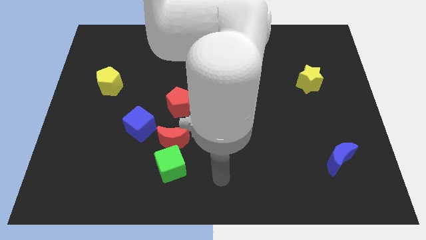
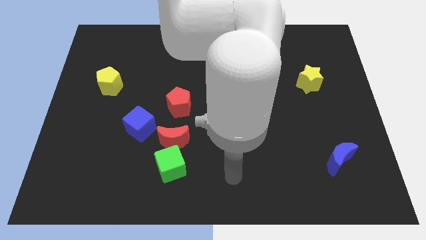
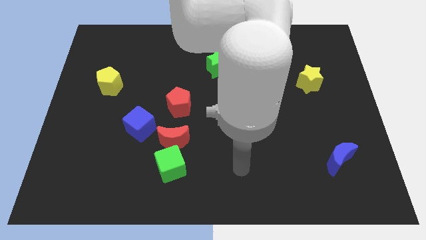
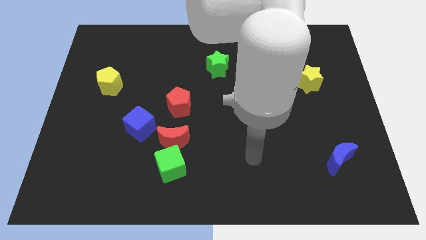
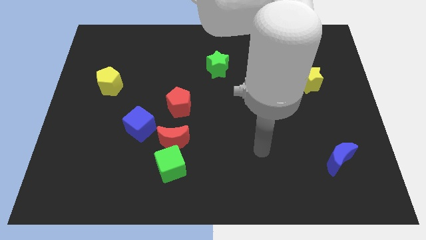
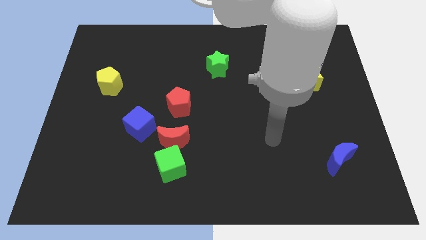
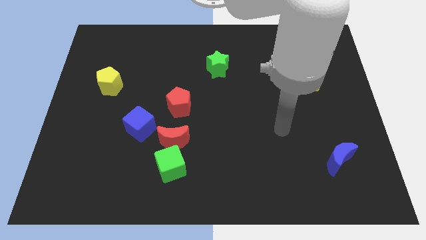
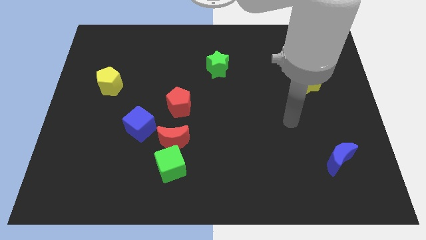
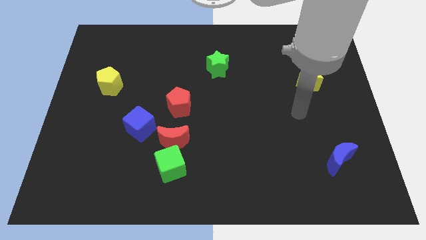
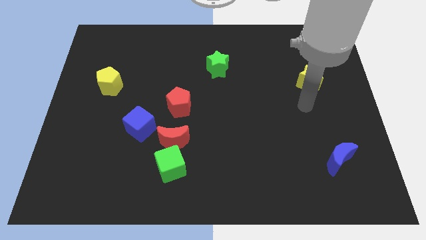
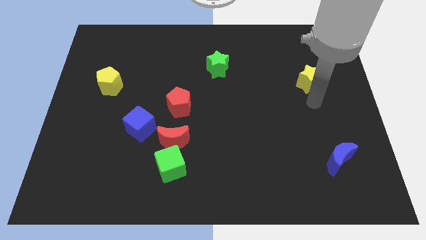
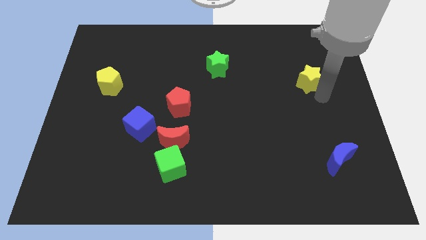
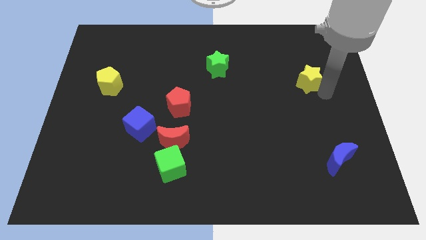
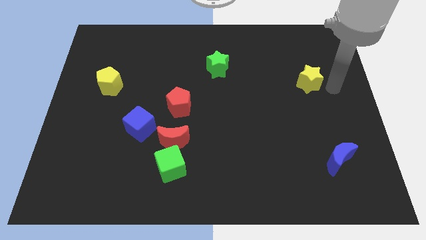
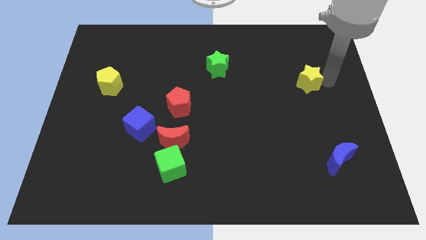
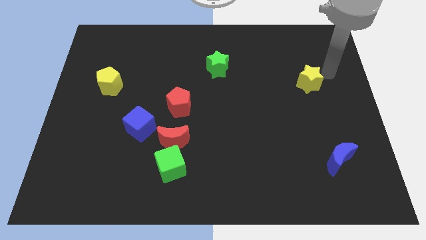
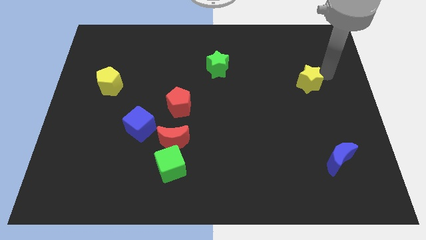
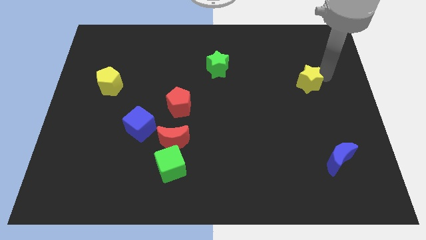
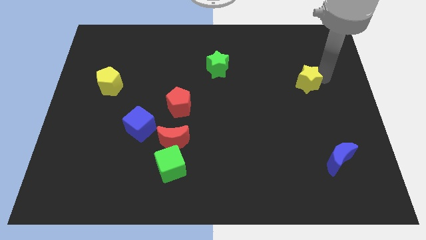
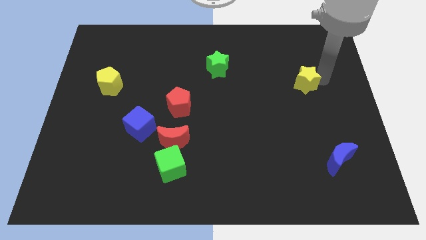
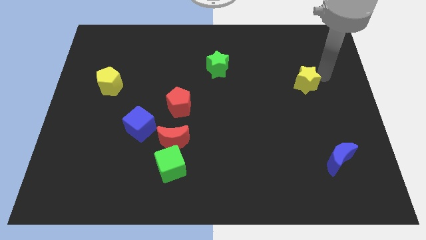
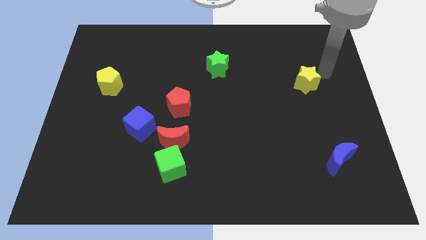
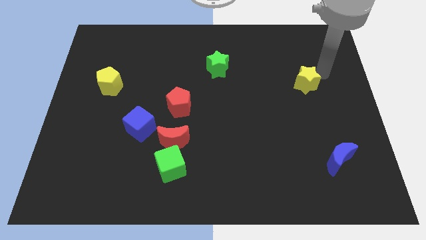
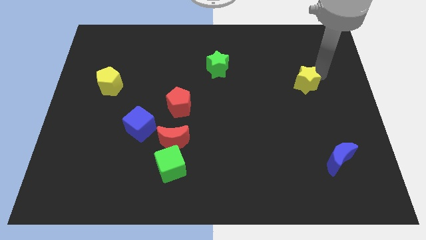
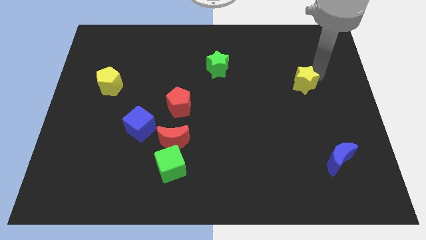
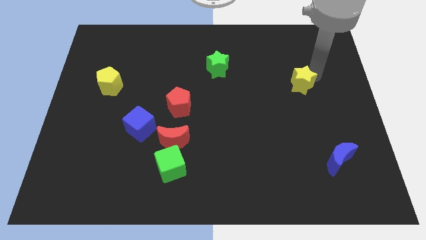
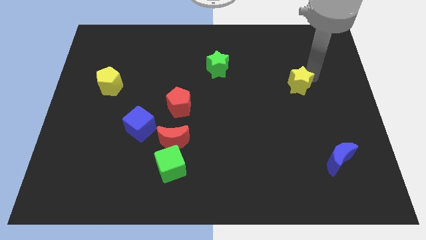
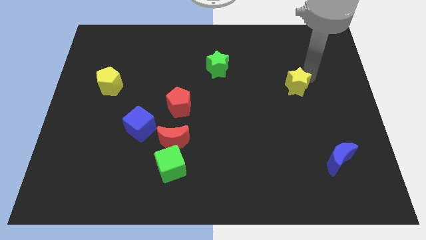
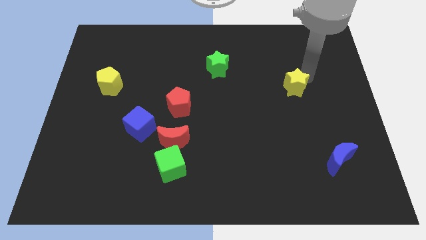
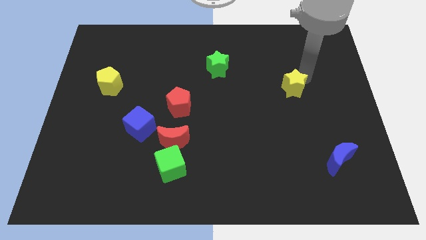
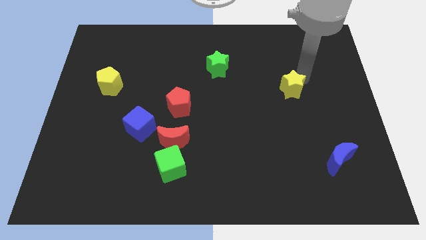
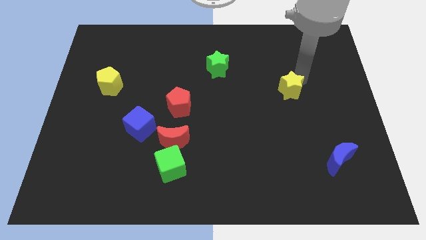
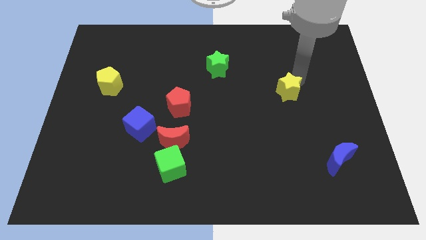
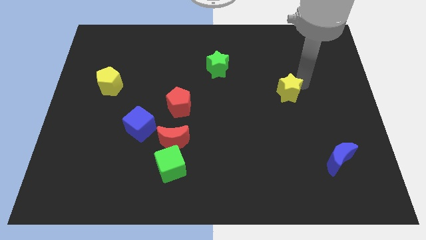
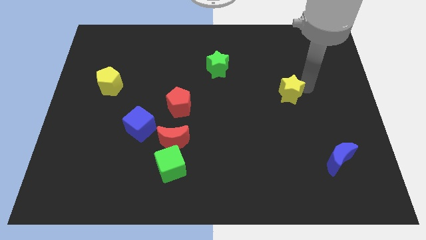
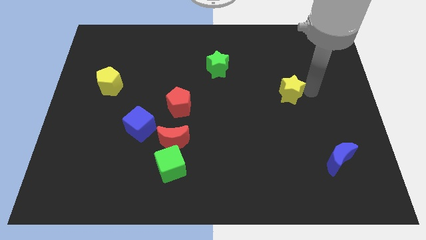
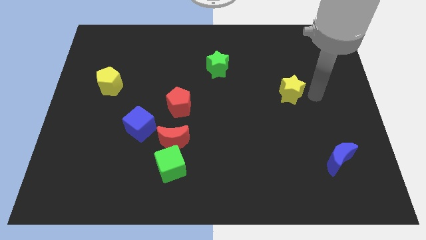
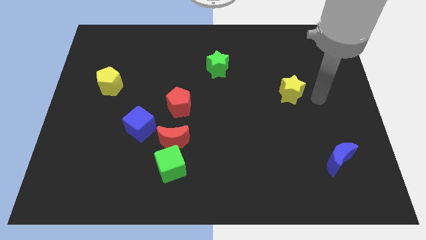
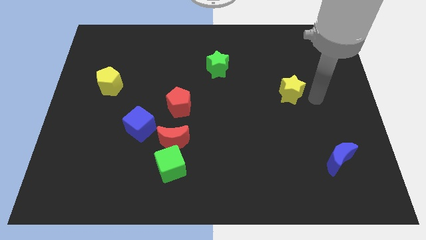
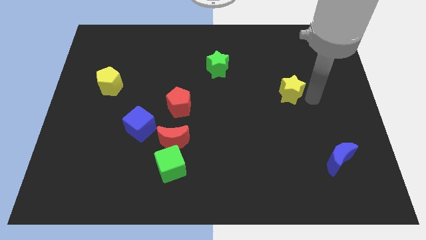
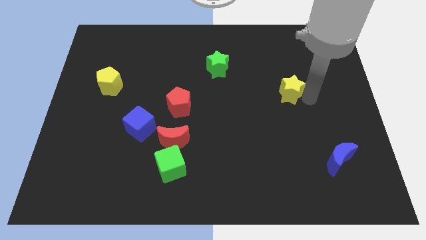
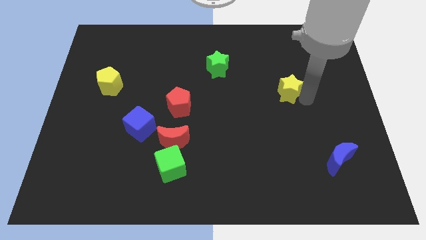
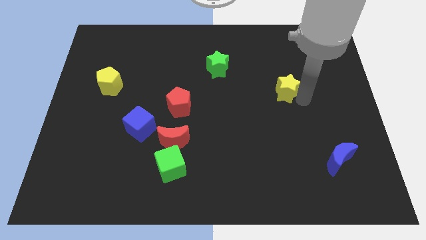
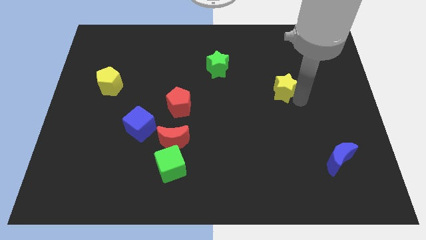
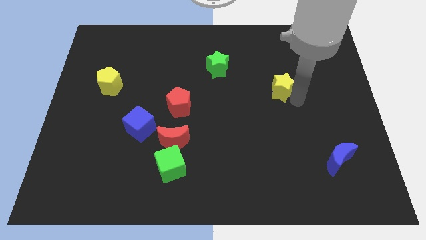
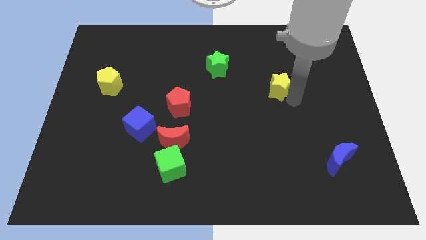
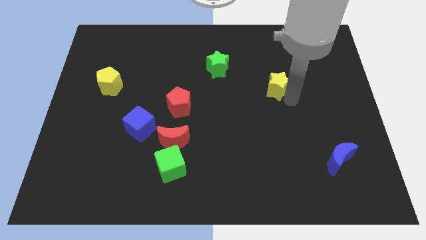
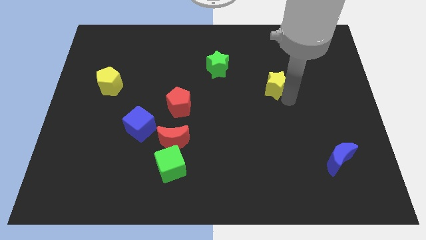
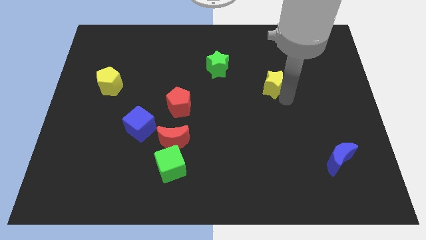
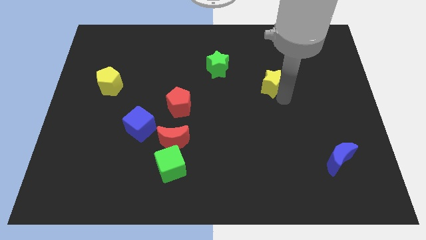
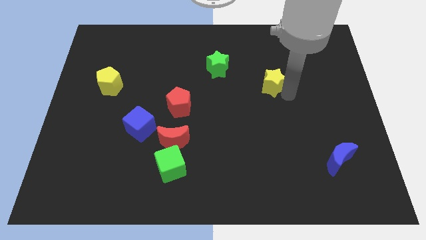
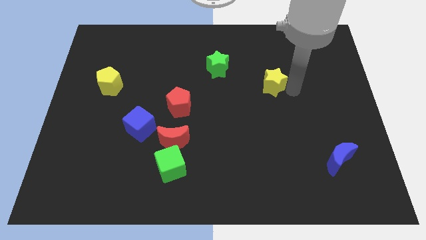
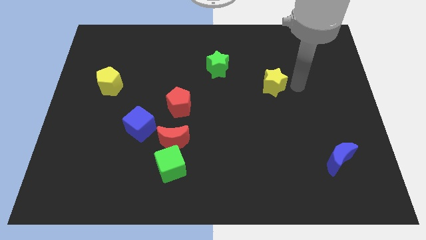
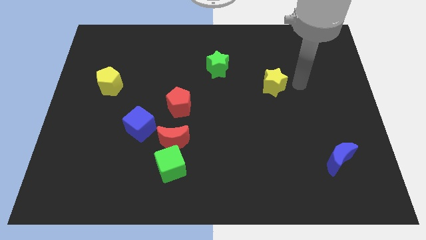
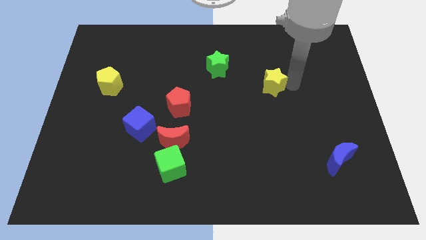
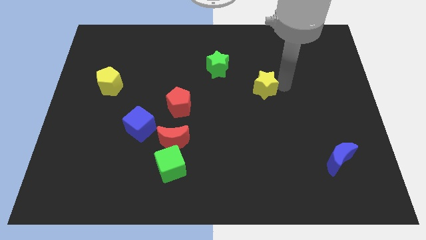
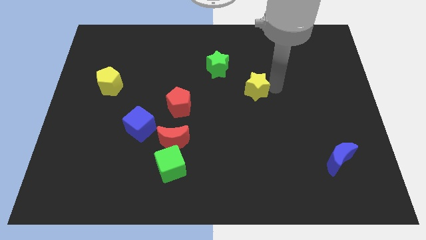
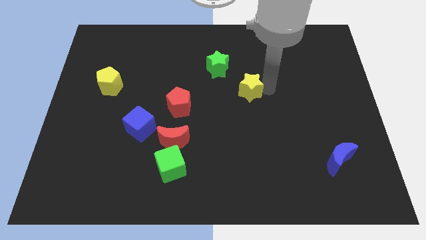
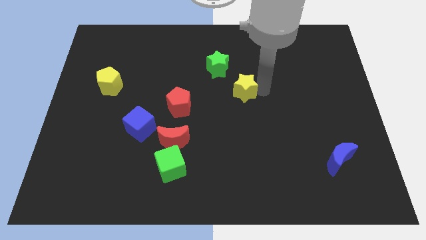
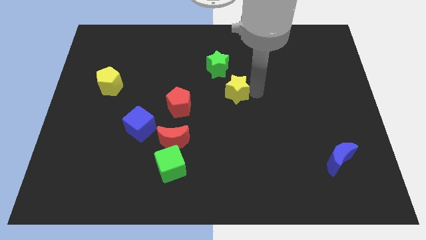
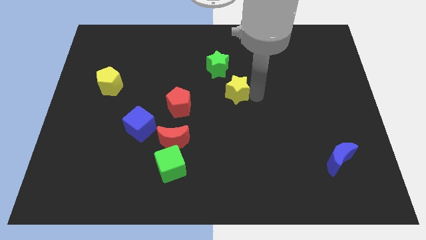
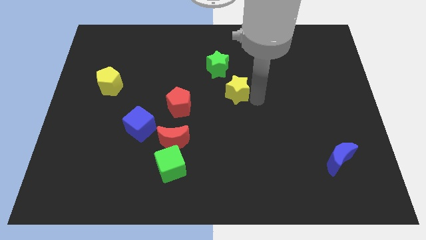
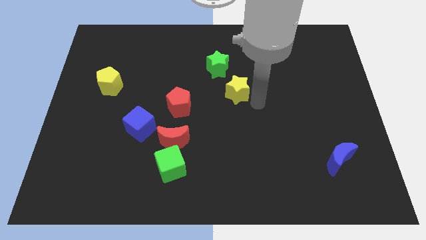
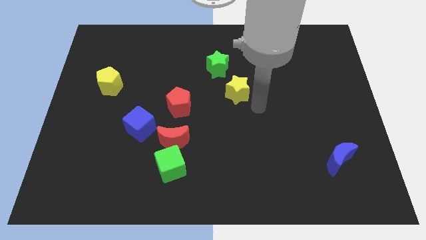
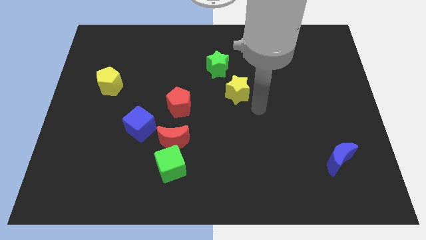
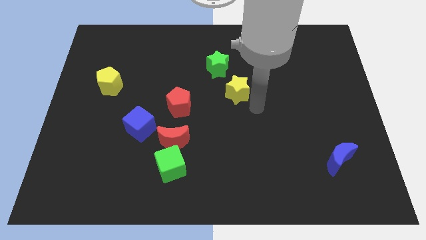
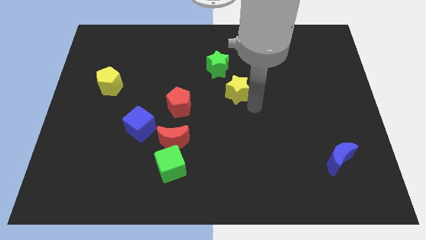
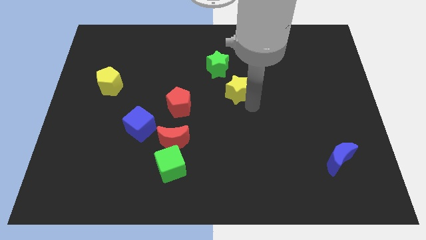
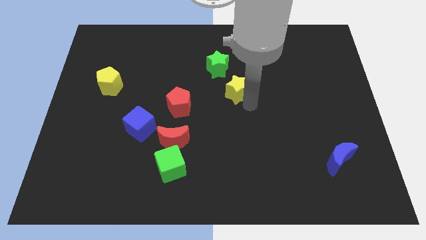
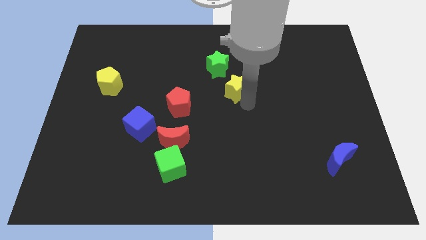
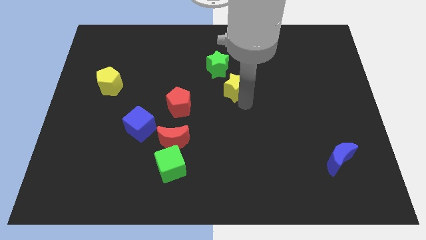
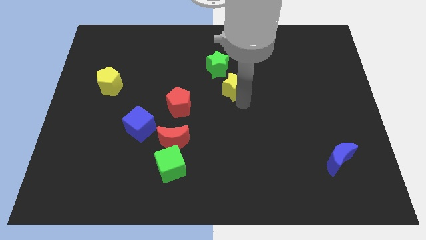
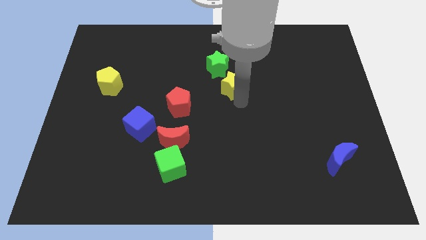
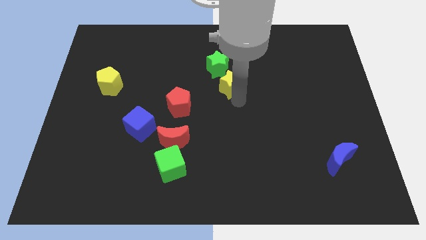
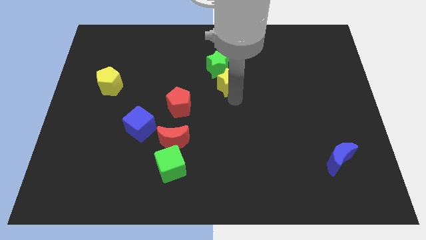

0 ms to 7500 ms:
slide the yellow star to the left
